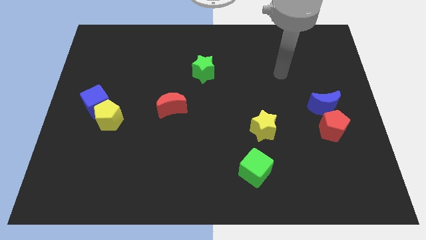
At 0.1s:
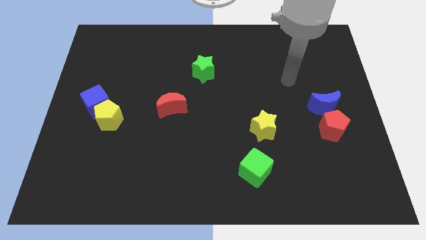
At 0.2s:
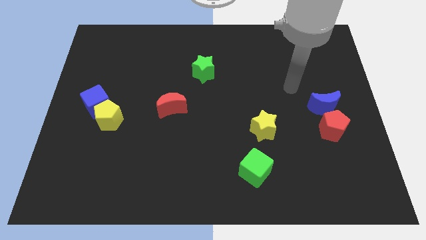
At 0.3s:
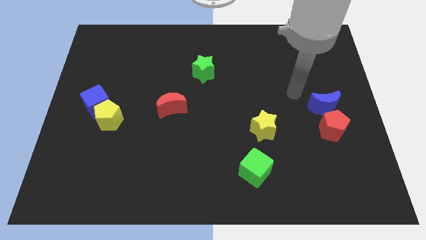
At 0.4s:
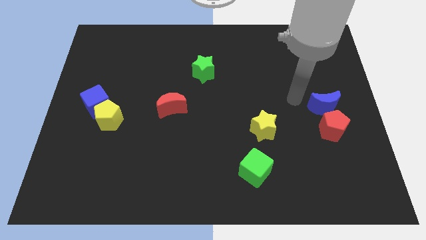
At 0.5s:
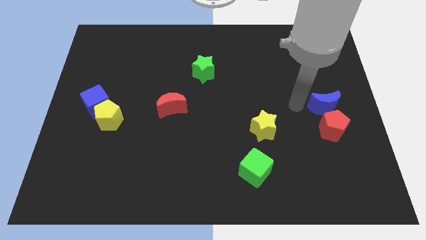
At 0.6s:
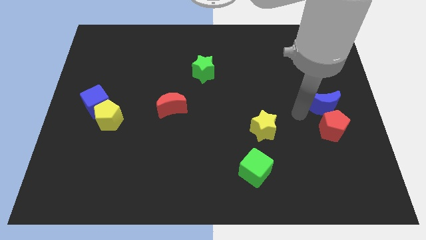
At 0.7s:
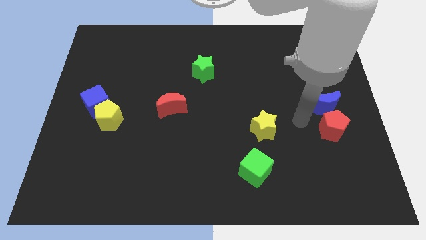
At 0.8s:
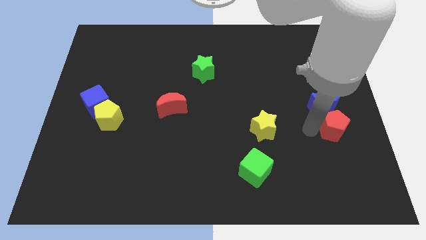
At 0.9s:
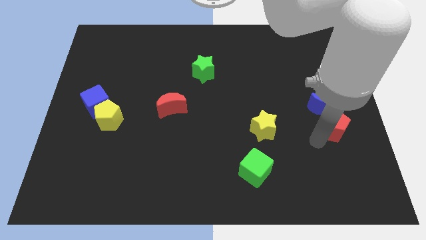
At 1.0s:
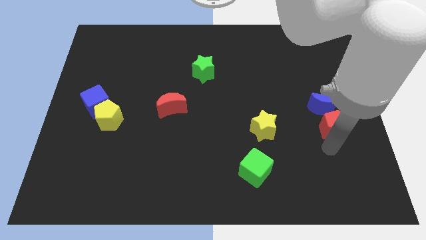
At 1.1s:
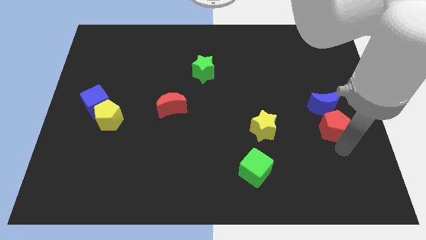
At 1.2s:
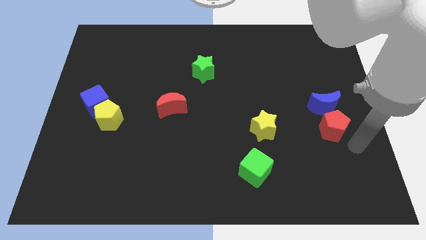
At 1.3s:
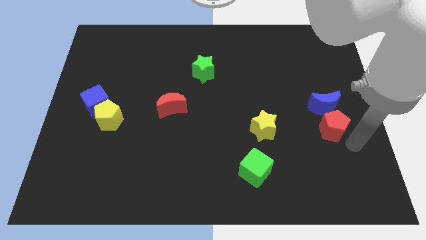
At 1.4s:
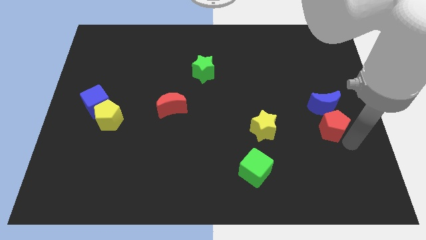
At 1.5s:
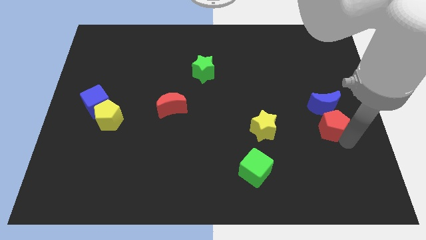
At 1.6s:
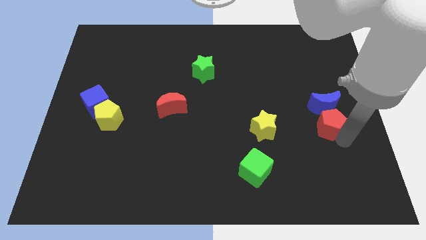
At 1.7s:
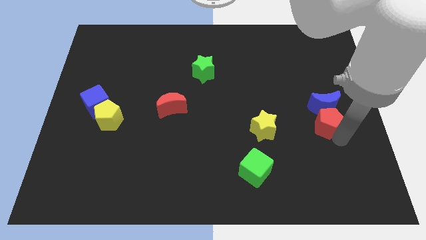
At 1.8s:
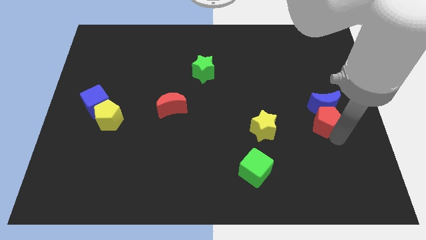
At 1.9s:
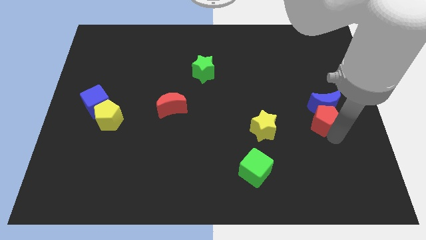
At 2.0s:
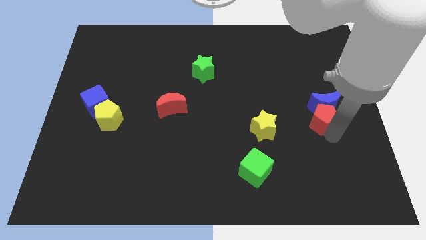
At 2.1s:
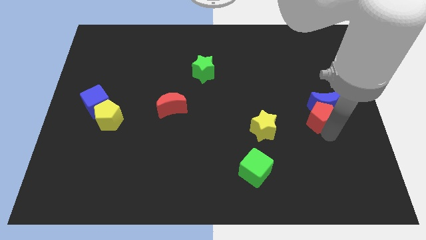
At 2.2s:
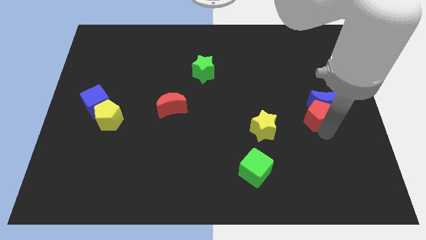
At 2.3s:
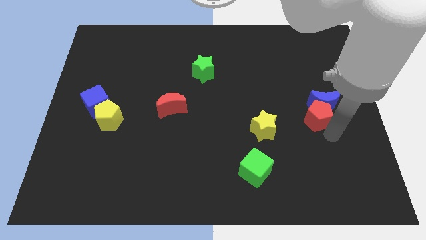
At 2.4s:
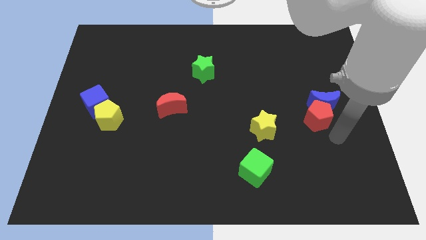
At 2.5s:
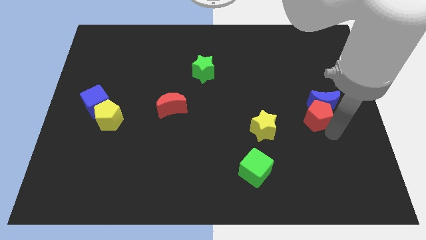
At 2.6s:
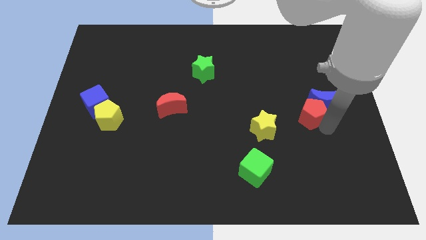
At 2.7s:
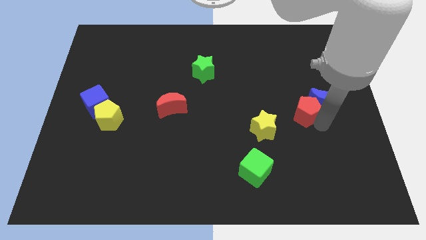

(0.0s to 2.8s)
slide the red pentagon a little bit up and then left

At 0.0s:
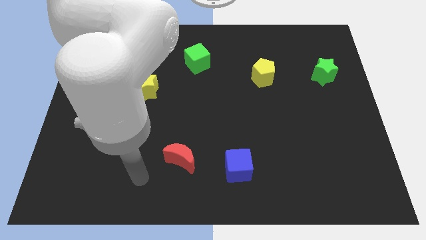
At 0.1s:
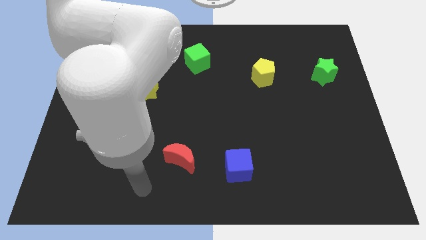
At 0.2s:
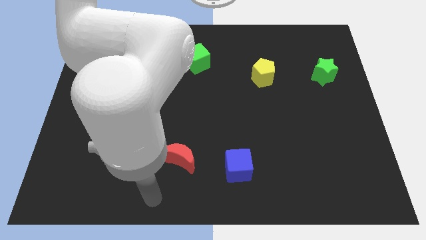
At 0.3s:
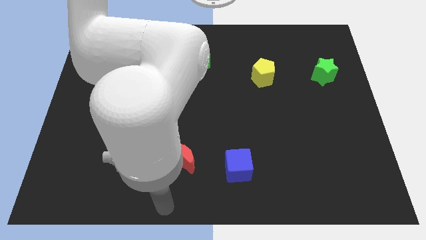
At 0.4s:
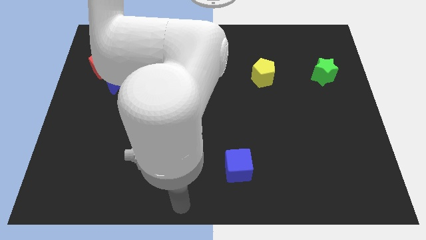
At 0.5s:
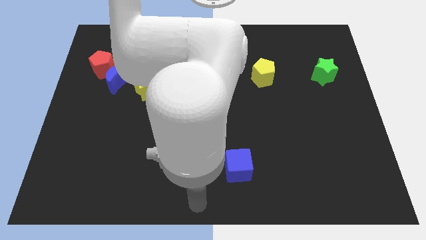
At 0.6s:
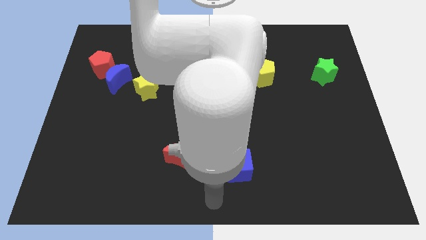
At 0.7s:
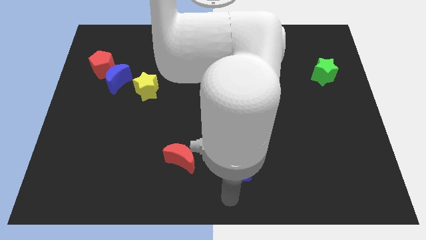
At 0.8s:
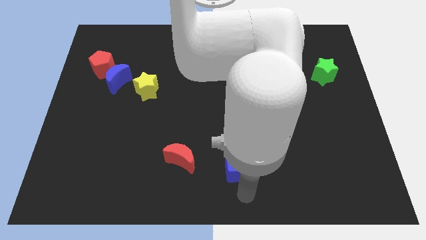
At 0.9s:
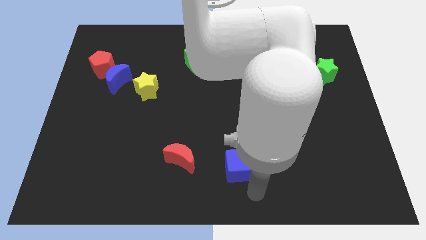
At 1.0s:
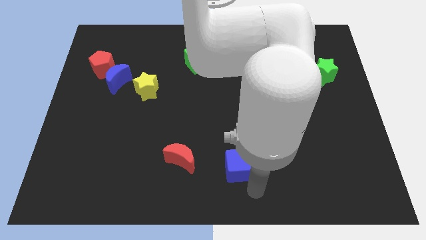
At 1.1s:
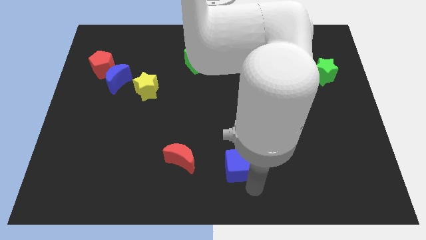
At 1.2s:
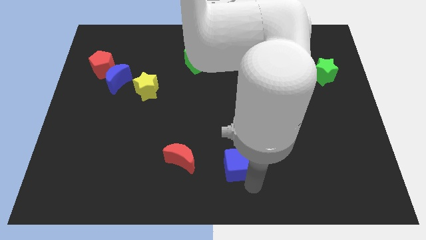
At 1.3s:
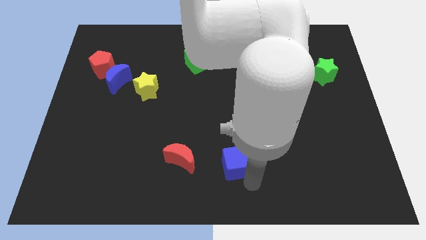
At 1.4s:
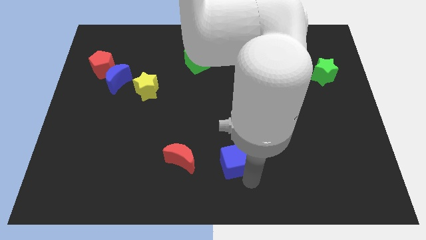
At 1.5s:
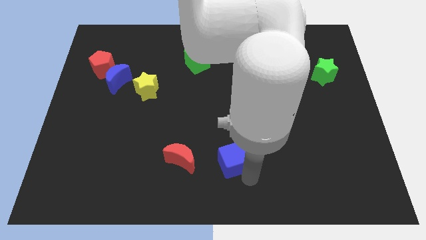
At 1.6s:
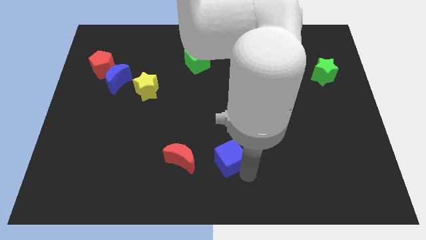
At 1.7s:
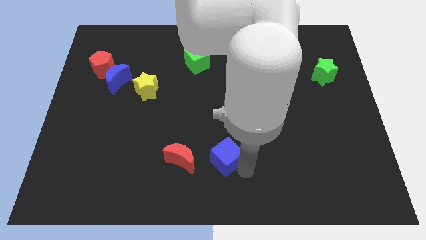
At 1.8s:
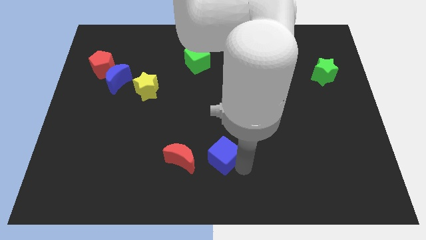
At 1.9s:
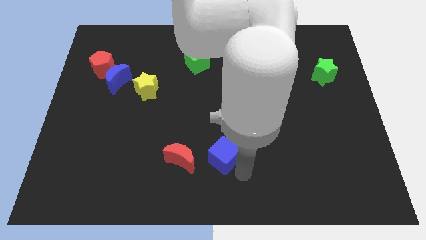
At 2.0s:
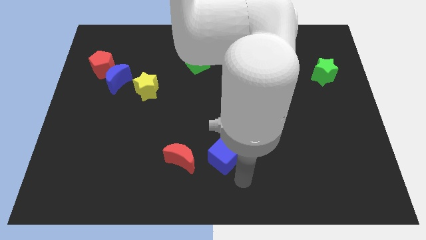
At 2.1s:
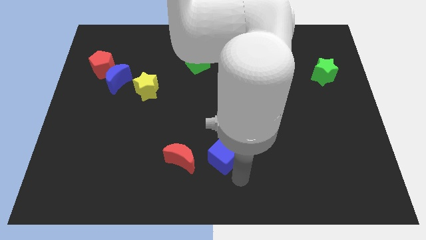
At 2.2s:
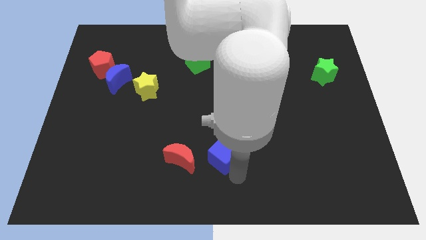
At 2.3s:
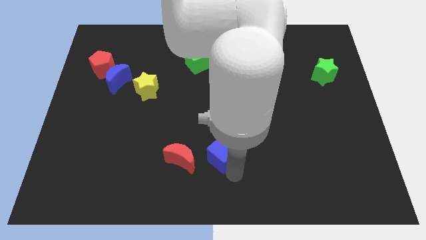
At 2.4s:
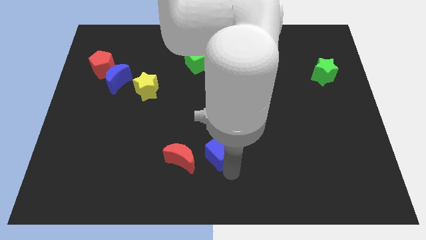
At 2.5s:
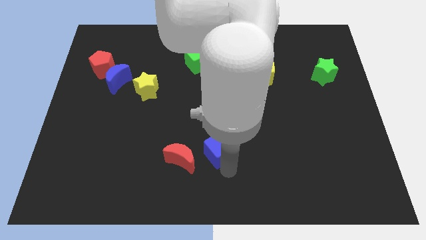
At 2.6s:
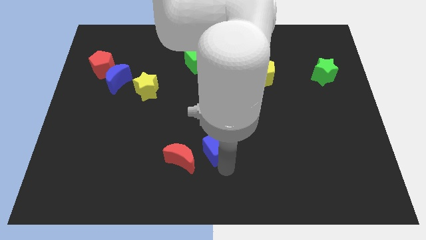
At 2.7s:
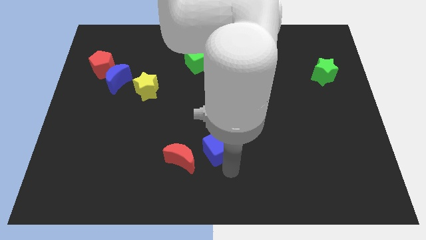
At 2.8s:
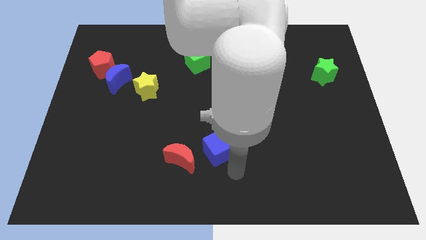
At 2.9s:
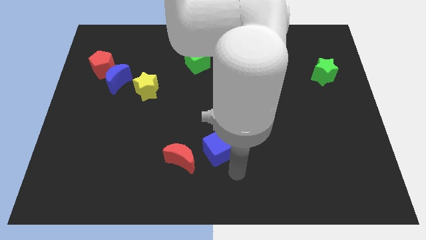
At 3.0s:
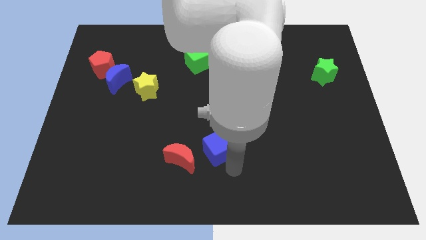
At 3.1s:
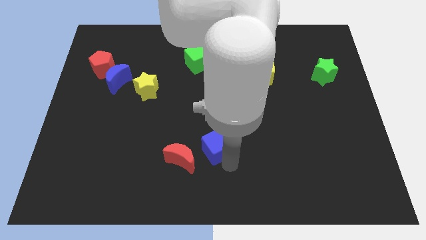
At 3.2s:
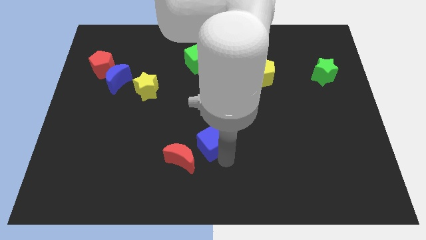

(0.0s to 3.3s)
move the blue cube somewhat up and to the left diagonally

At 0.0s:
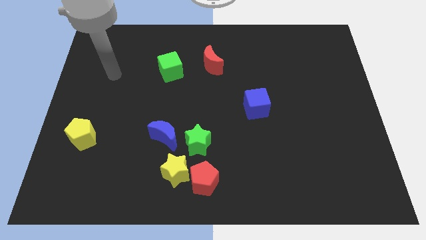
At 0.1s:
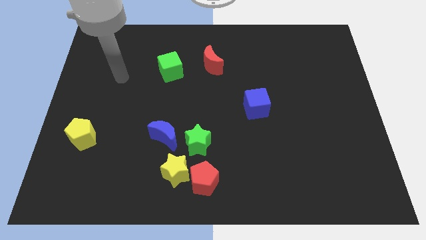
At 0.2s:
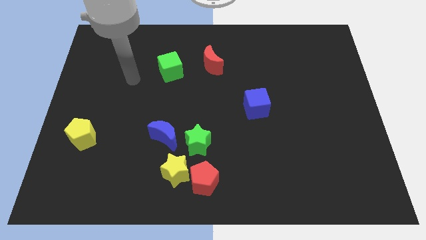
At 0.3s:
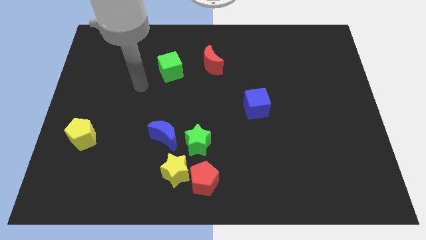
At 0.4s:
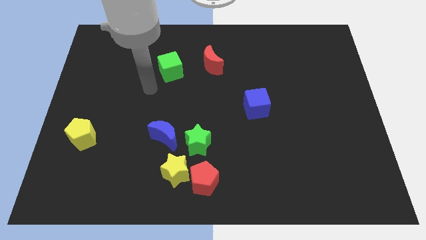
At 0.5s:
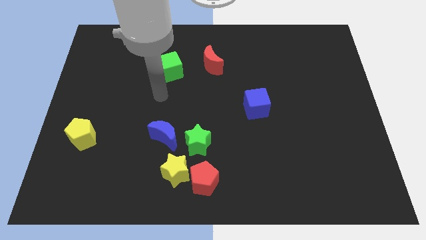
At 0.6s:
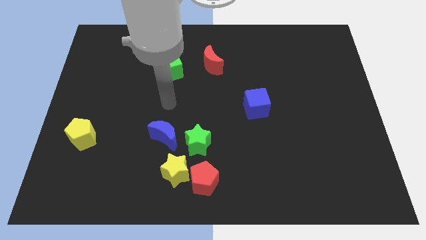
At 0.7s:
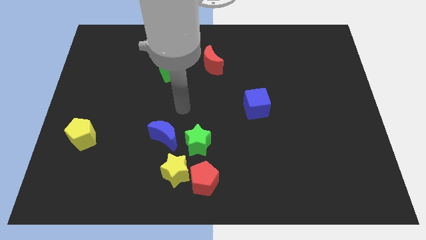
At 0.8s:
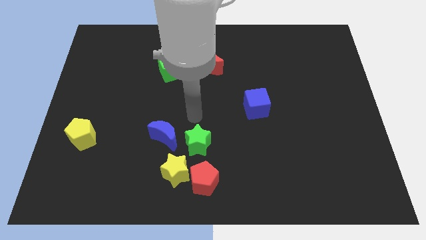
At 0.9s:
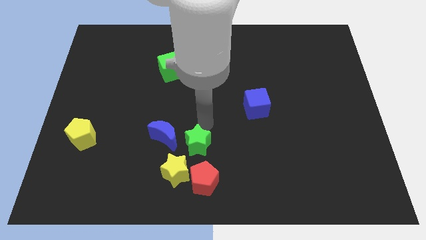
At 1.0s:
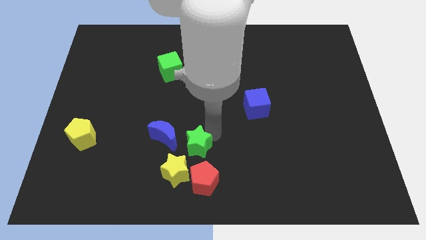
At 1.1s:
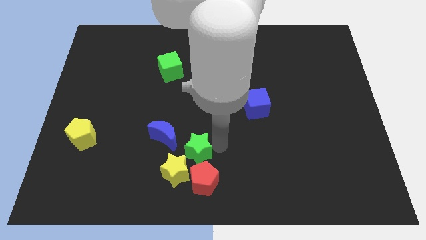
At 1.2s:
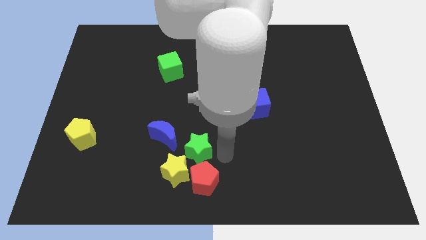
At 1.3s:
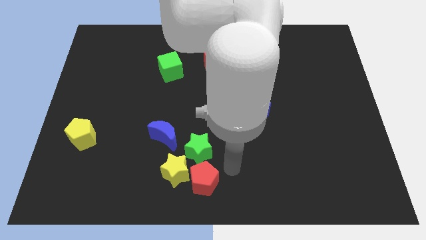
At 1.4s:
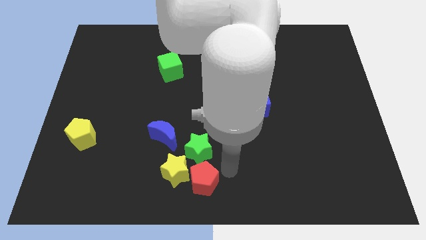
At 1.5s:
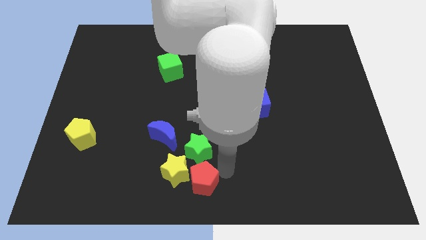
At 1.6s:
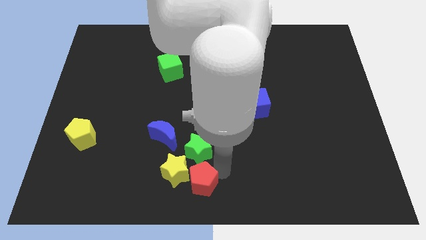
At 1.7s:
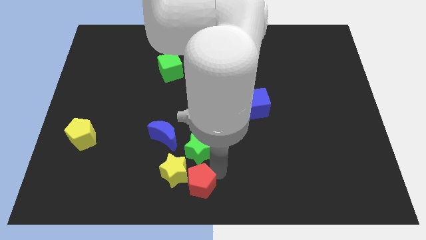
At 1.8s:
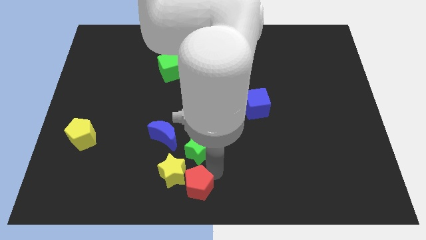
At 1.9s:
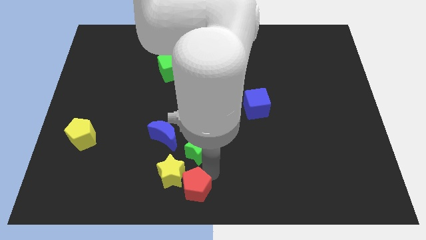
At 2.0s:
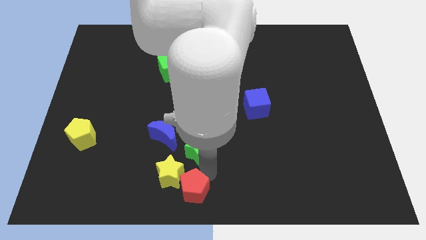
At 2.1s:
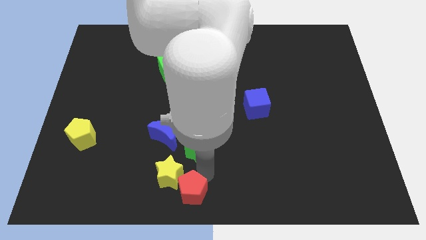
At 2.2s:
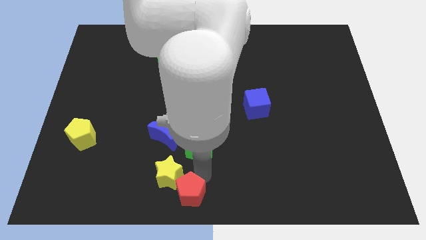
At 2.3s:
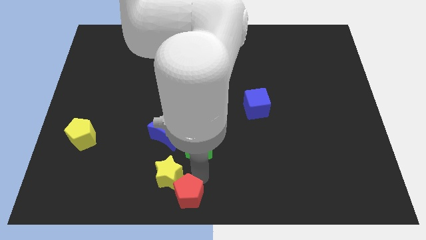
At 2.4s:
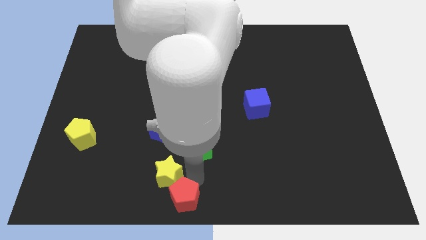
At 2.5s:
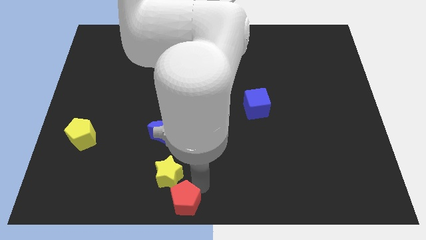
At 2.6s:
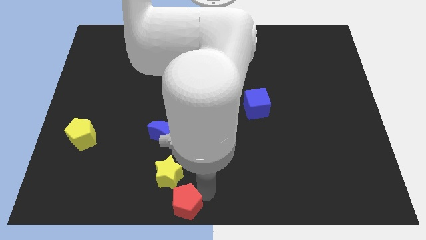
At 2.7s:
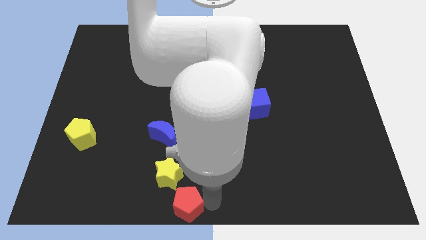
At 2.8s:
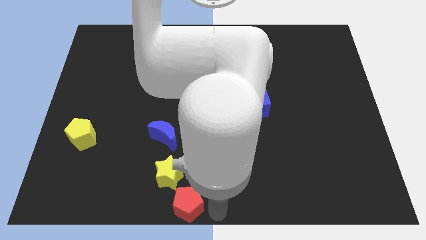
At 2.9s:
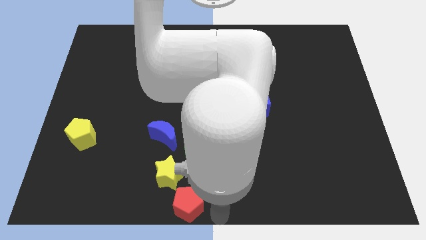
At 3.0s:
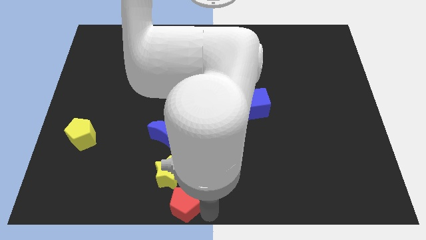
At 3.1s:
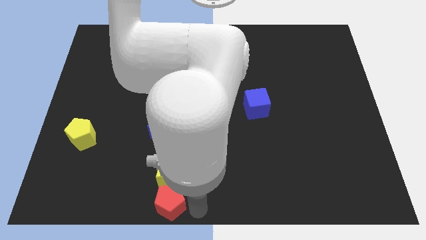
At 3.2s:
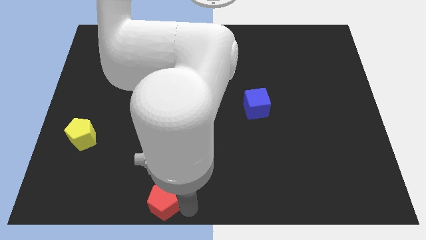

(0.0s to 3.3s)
push the red pentagon a little bit left
